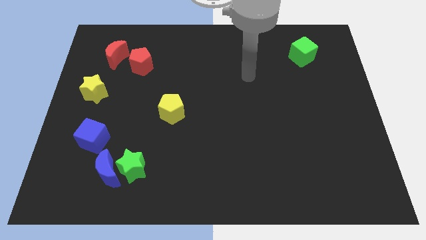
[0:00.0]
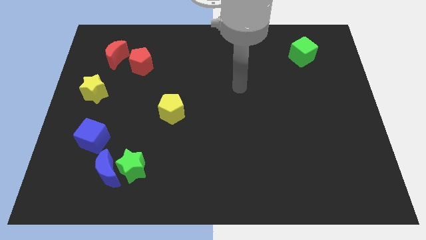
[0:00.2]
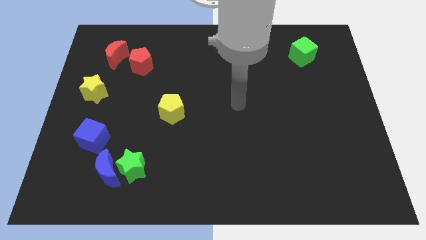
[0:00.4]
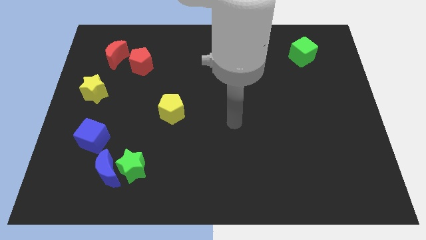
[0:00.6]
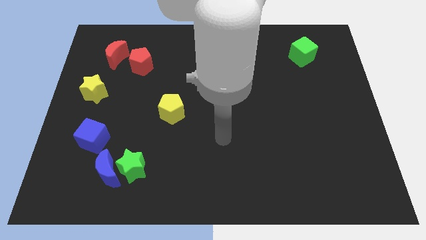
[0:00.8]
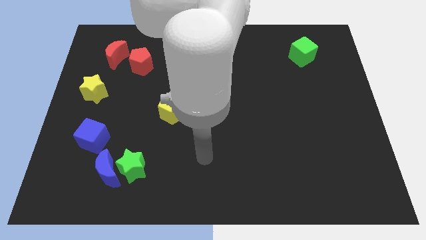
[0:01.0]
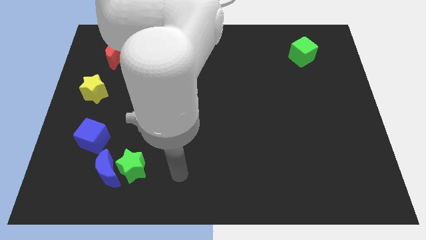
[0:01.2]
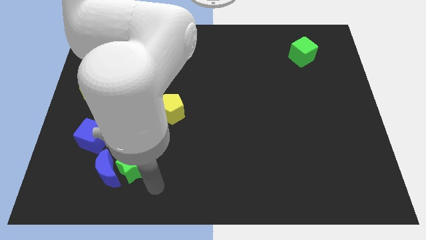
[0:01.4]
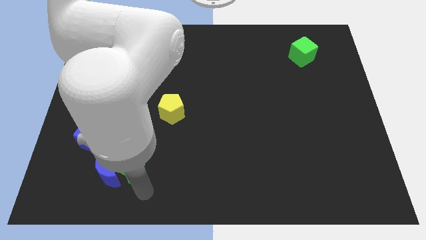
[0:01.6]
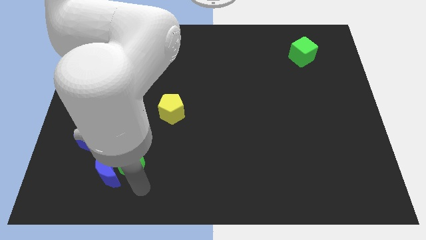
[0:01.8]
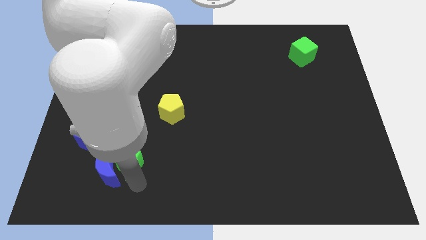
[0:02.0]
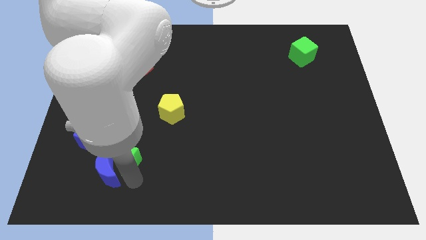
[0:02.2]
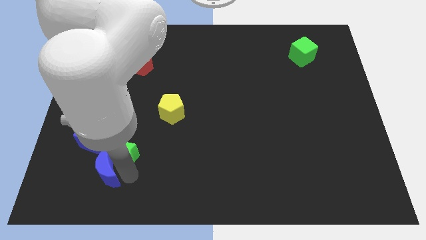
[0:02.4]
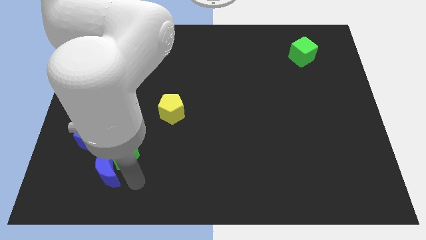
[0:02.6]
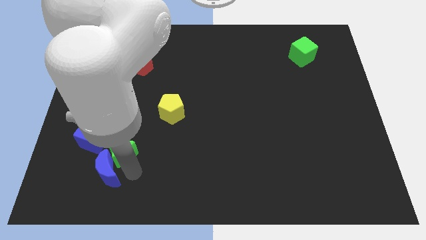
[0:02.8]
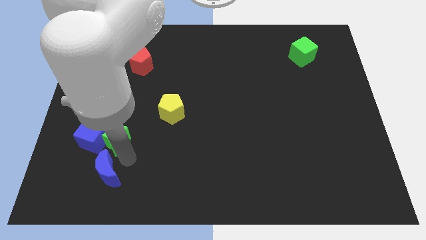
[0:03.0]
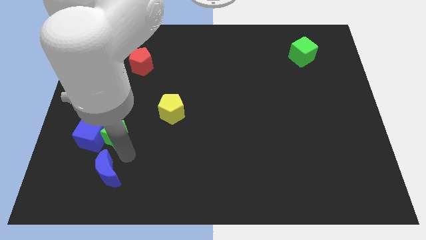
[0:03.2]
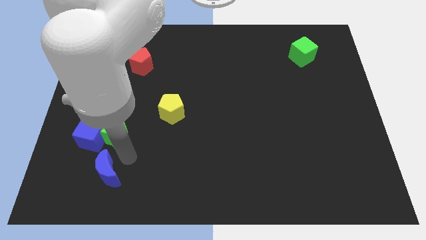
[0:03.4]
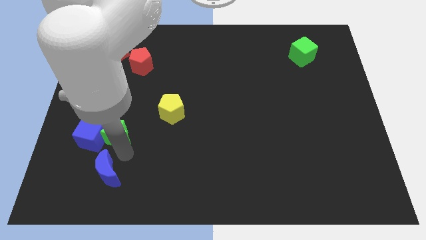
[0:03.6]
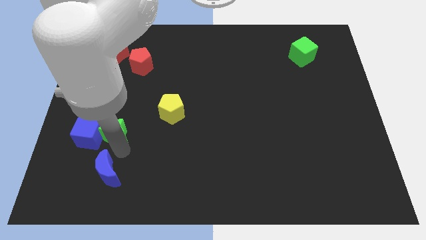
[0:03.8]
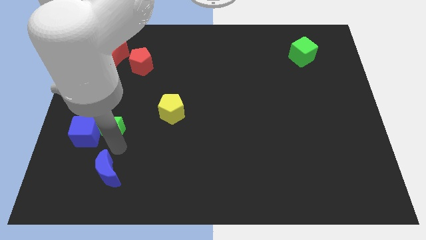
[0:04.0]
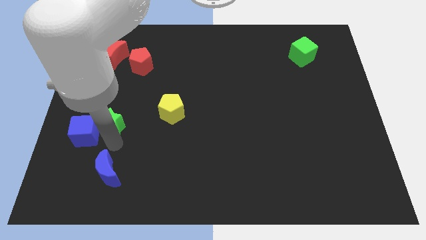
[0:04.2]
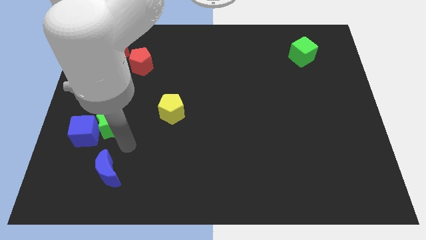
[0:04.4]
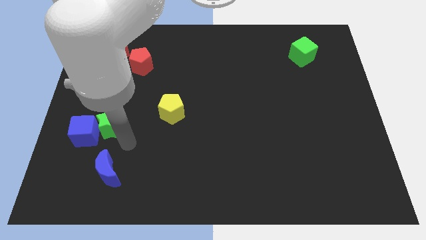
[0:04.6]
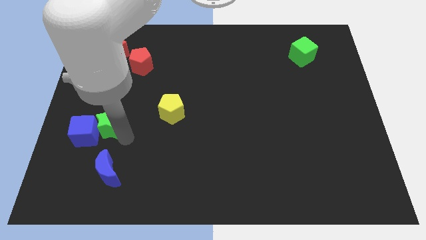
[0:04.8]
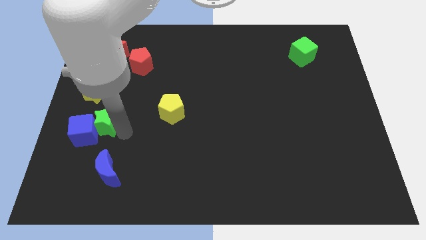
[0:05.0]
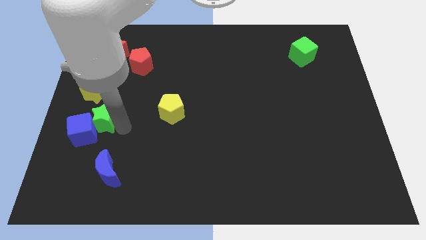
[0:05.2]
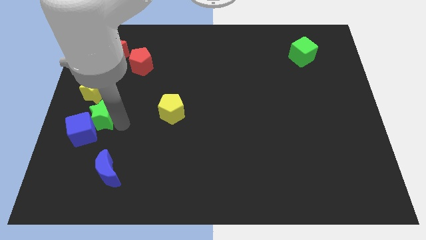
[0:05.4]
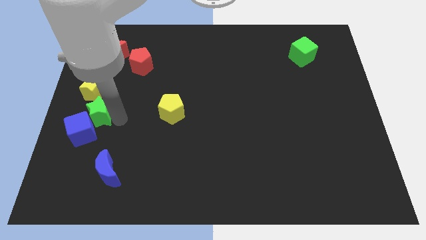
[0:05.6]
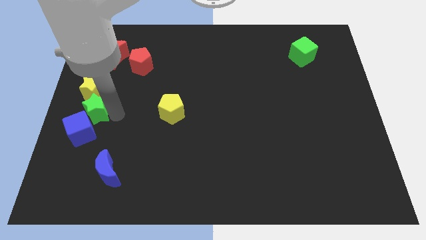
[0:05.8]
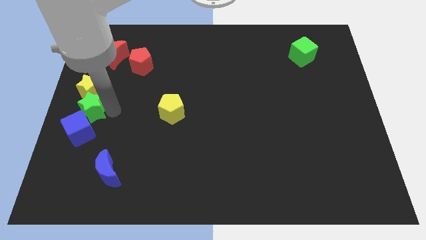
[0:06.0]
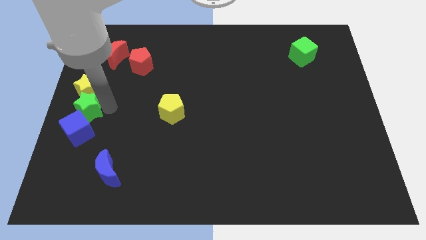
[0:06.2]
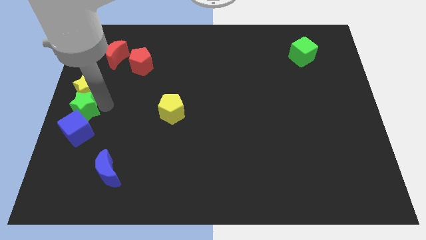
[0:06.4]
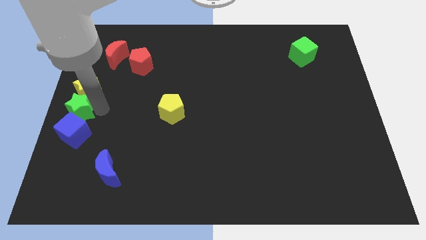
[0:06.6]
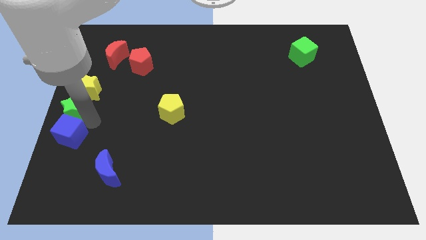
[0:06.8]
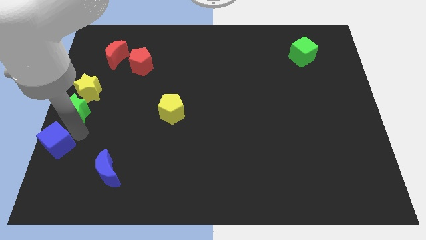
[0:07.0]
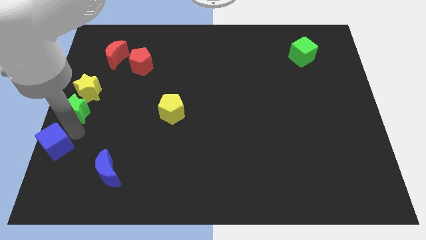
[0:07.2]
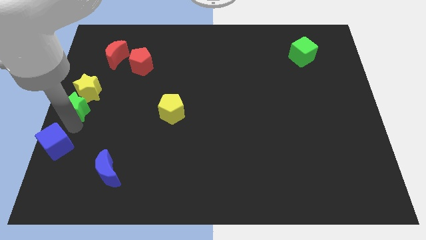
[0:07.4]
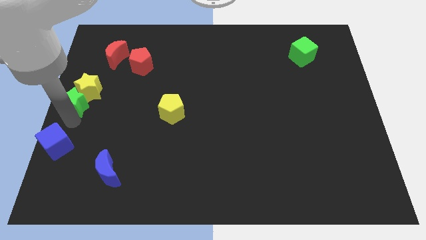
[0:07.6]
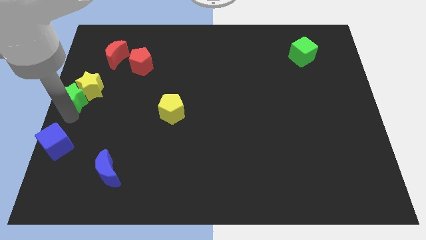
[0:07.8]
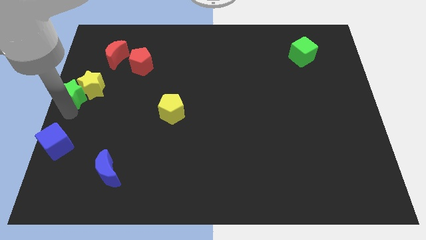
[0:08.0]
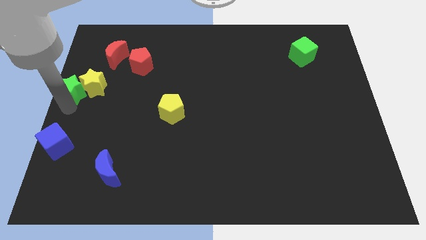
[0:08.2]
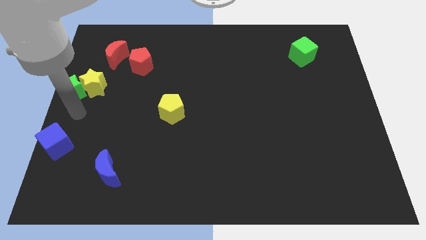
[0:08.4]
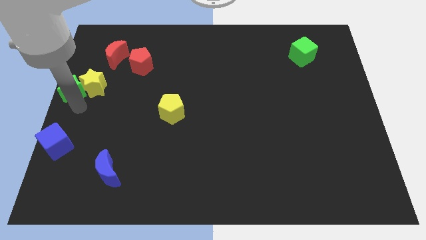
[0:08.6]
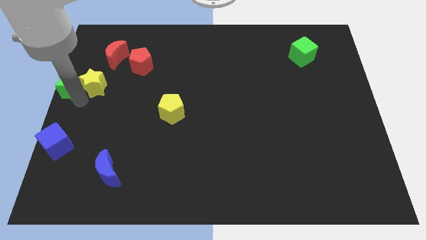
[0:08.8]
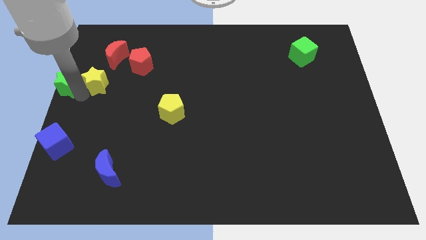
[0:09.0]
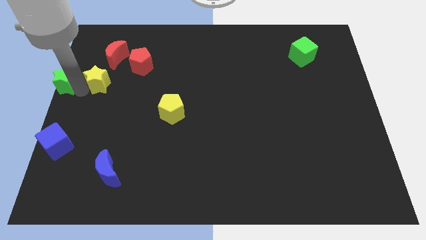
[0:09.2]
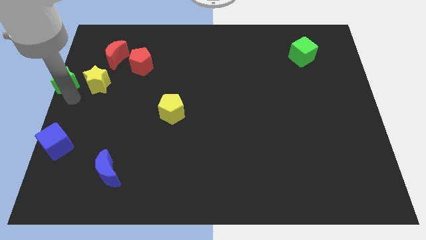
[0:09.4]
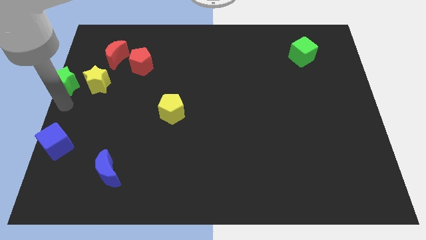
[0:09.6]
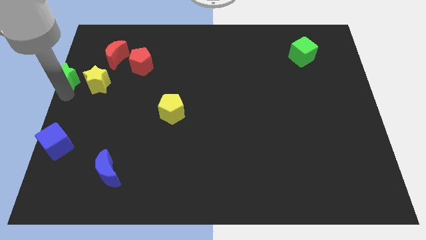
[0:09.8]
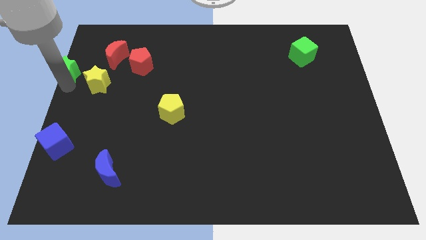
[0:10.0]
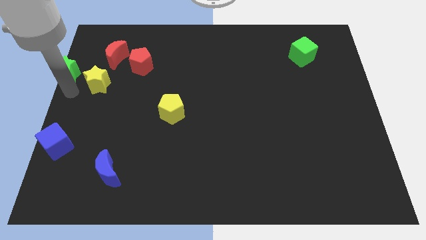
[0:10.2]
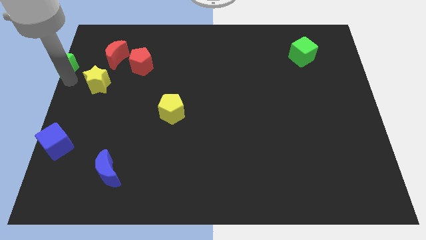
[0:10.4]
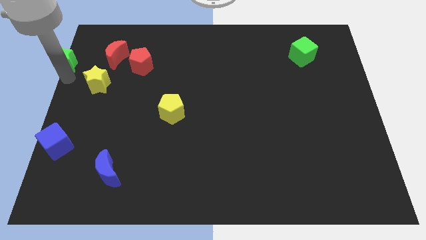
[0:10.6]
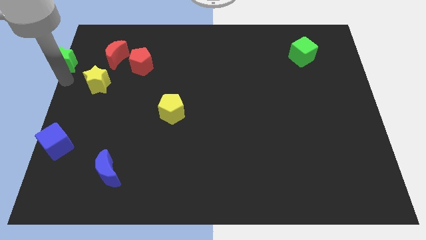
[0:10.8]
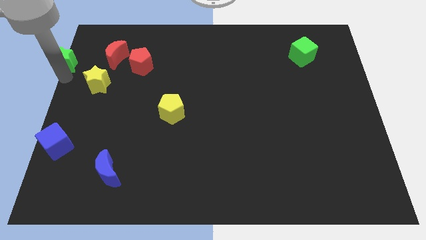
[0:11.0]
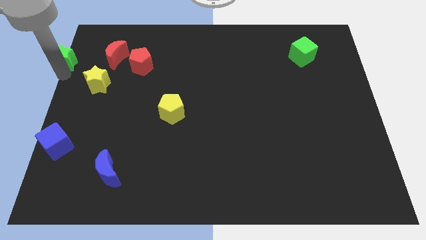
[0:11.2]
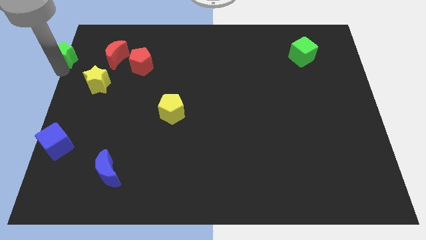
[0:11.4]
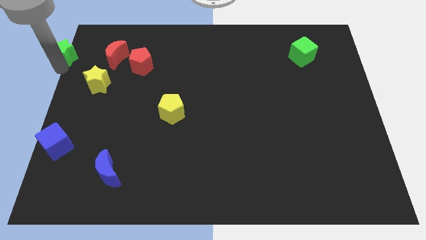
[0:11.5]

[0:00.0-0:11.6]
slide the green star to the upper left corner
